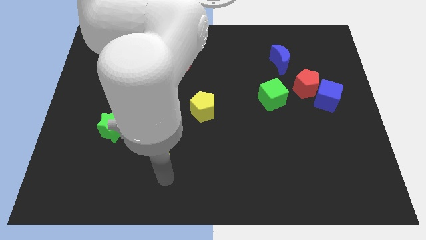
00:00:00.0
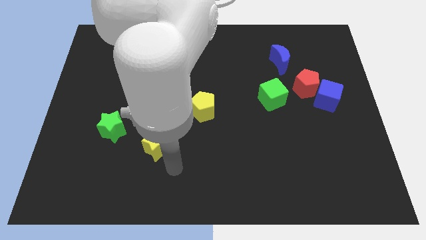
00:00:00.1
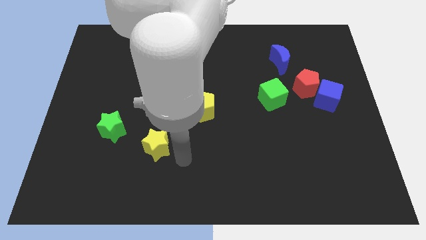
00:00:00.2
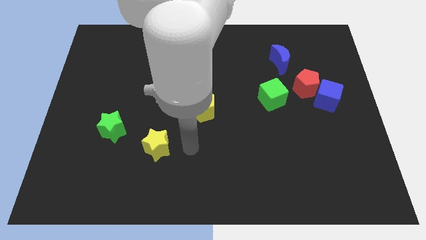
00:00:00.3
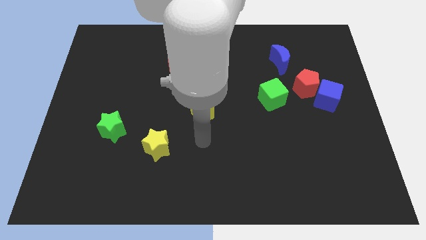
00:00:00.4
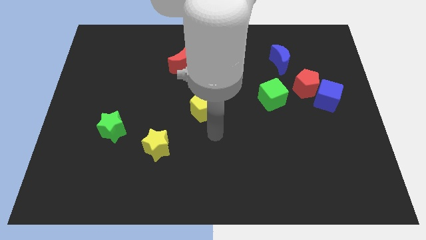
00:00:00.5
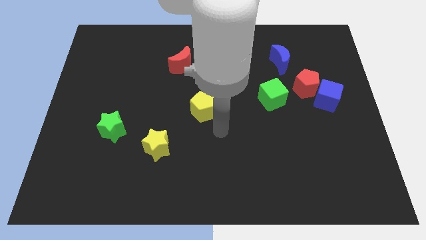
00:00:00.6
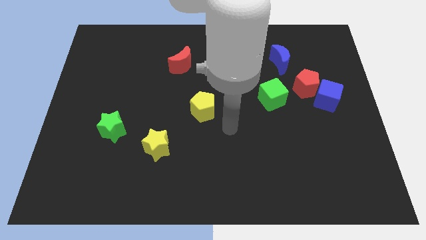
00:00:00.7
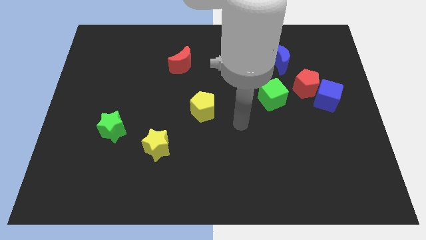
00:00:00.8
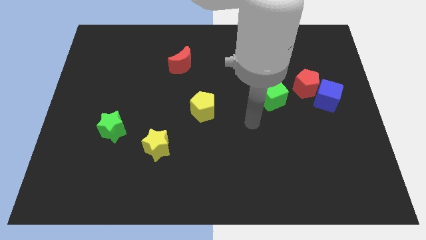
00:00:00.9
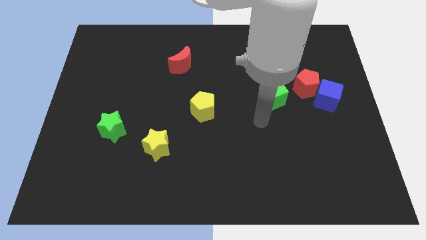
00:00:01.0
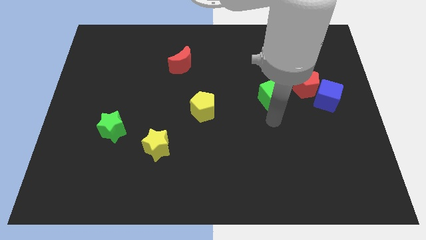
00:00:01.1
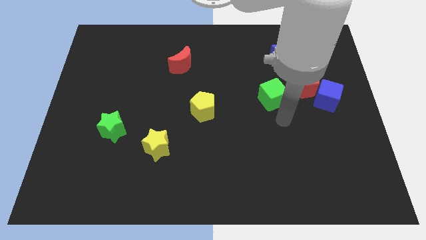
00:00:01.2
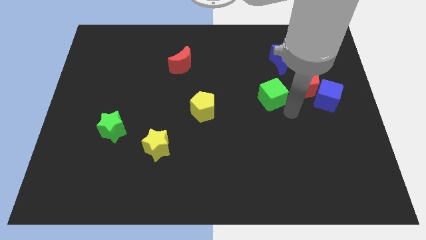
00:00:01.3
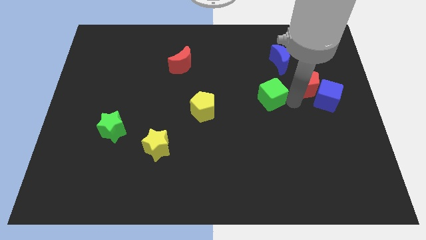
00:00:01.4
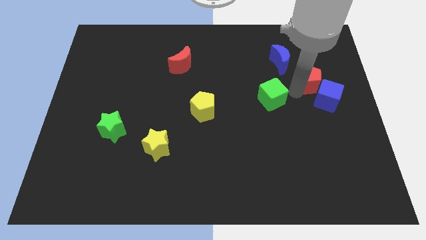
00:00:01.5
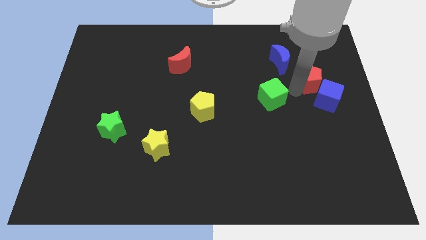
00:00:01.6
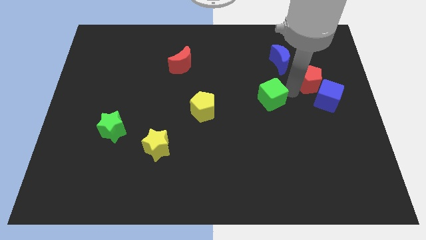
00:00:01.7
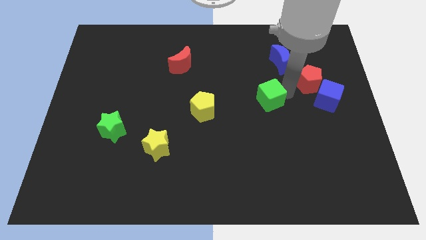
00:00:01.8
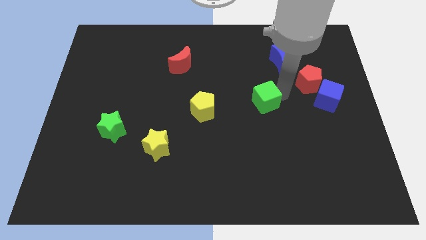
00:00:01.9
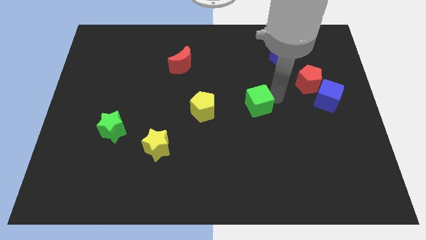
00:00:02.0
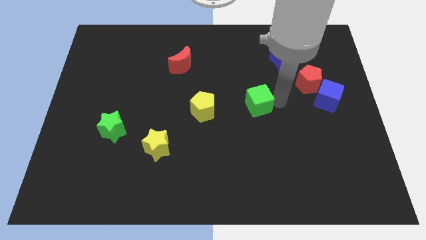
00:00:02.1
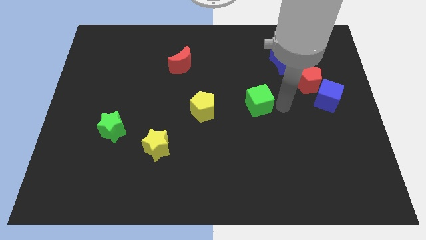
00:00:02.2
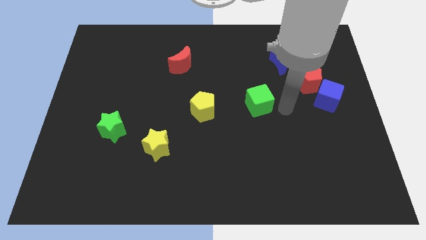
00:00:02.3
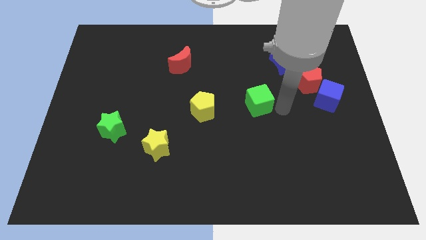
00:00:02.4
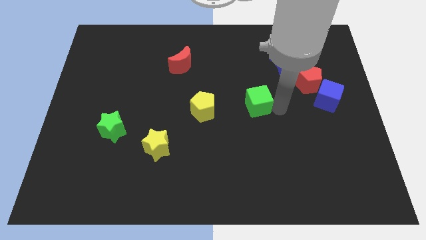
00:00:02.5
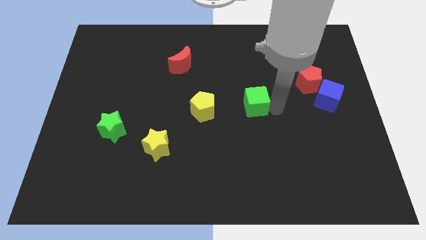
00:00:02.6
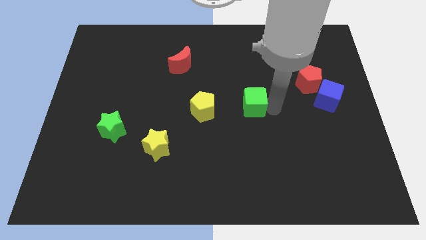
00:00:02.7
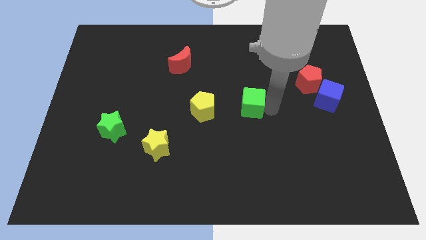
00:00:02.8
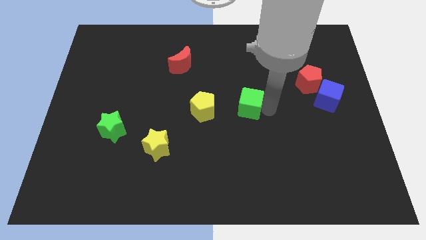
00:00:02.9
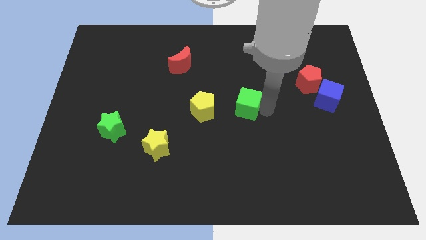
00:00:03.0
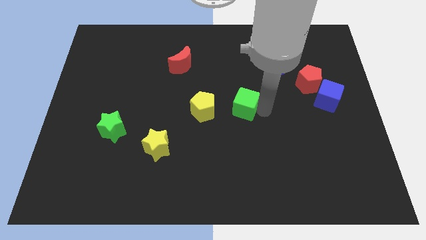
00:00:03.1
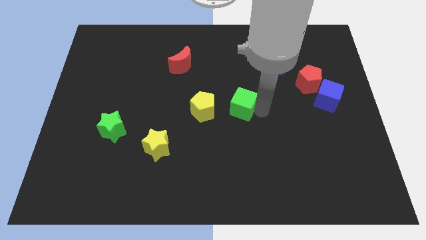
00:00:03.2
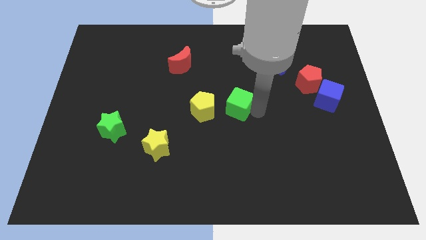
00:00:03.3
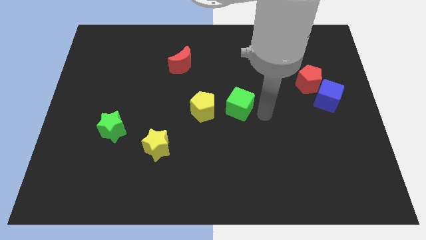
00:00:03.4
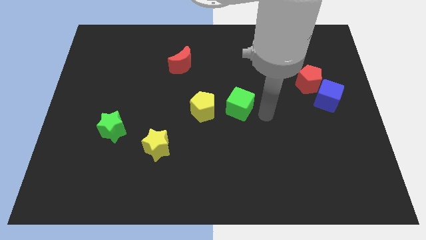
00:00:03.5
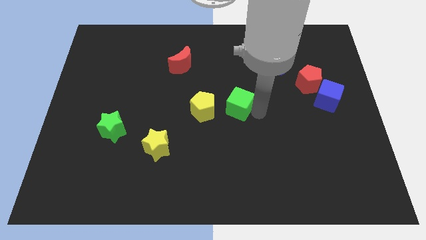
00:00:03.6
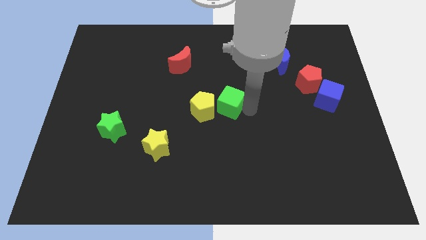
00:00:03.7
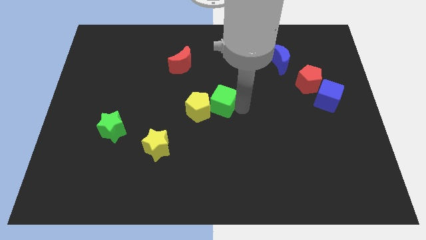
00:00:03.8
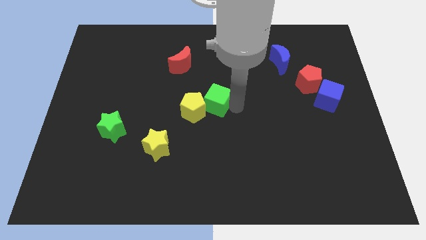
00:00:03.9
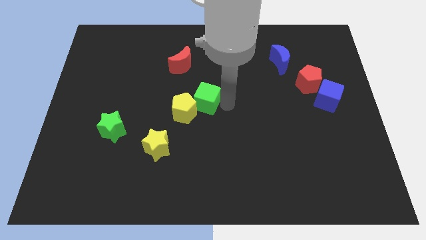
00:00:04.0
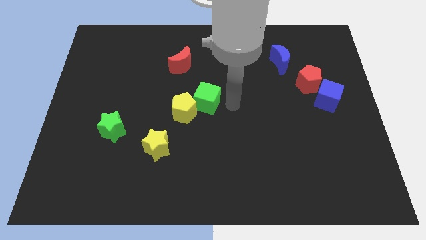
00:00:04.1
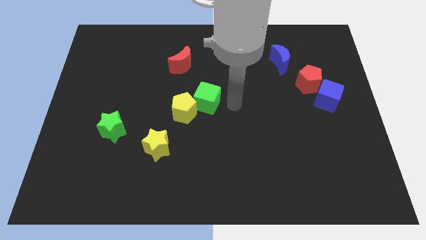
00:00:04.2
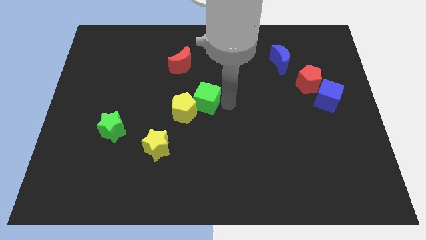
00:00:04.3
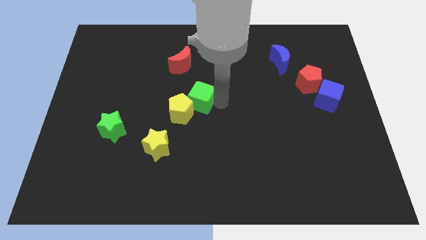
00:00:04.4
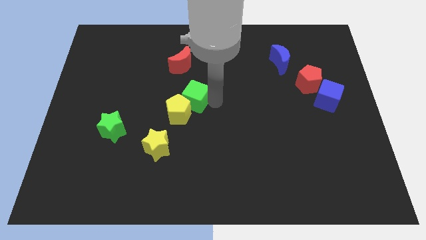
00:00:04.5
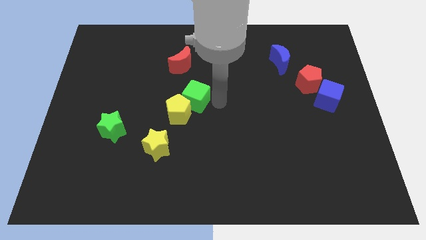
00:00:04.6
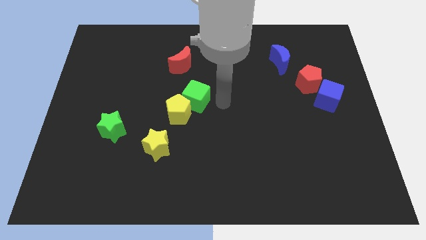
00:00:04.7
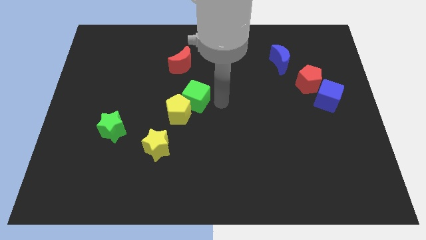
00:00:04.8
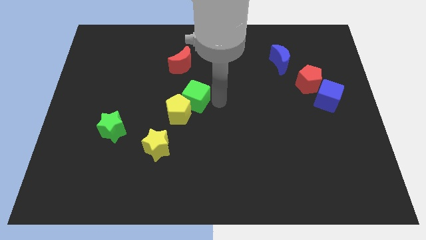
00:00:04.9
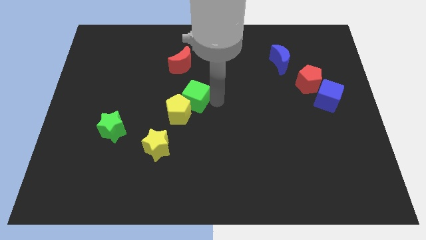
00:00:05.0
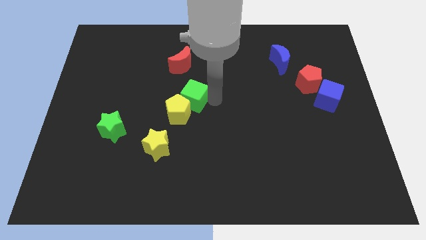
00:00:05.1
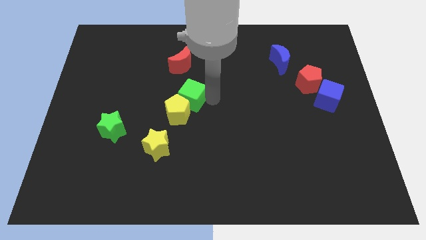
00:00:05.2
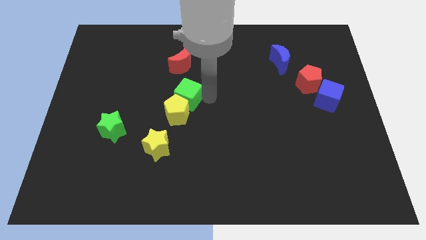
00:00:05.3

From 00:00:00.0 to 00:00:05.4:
push the green cube to the left

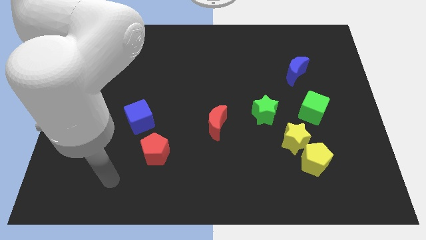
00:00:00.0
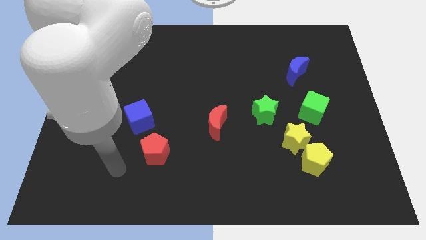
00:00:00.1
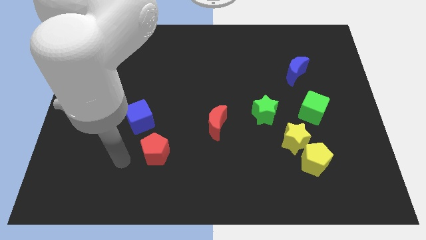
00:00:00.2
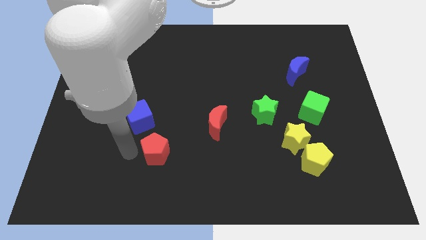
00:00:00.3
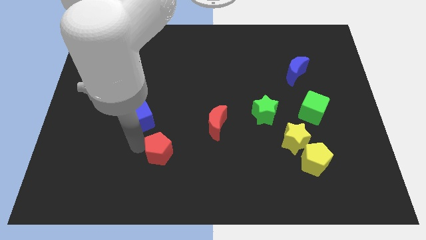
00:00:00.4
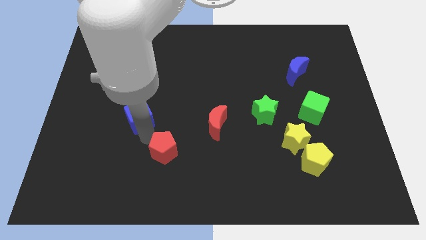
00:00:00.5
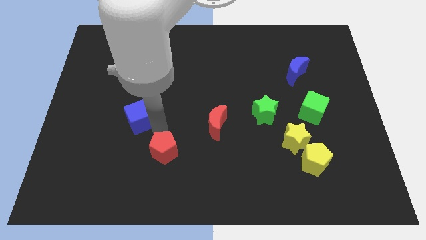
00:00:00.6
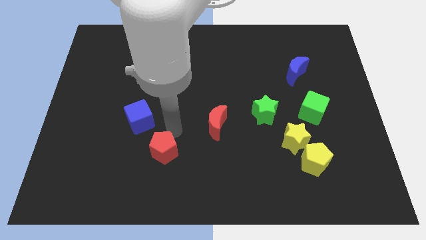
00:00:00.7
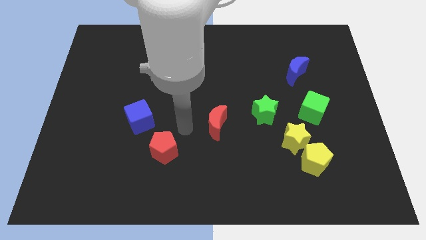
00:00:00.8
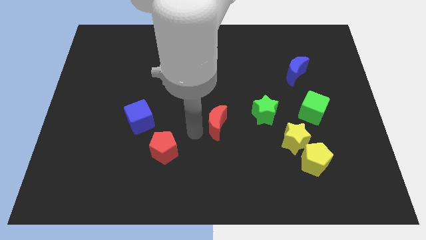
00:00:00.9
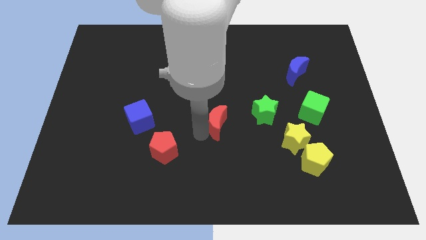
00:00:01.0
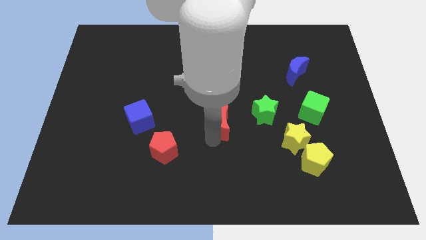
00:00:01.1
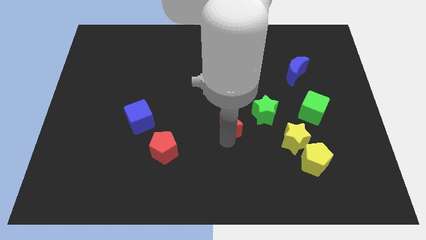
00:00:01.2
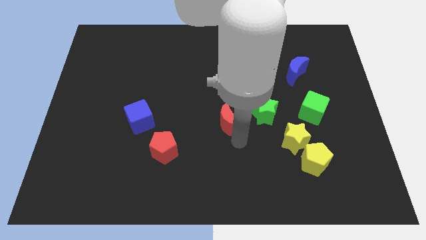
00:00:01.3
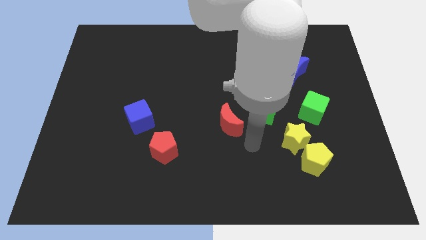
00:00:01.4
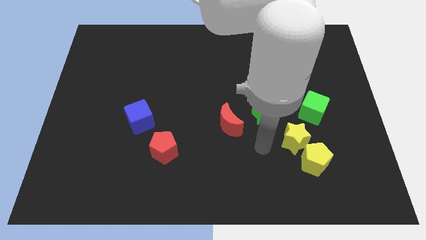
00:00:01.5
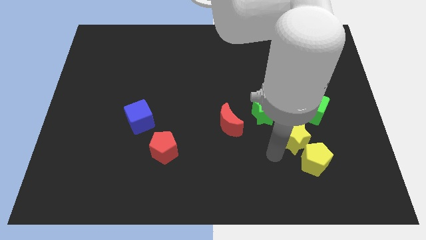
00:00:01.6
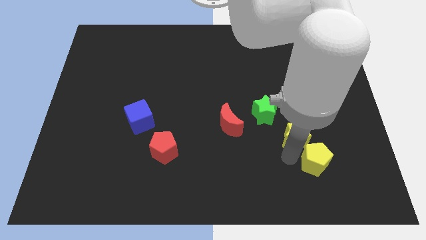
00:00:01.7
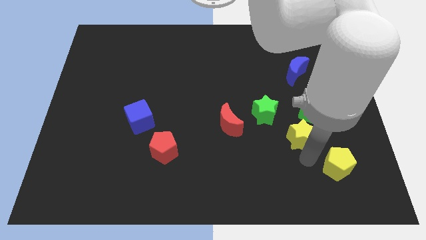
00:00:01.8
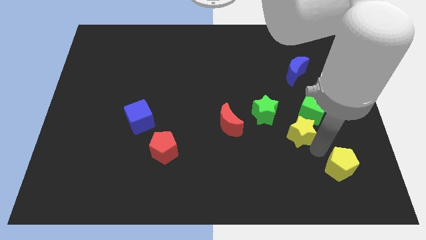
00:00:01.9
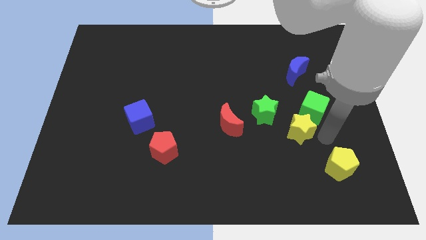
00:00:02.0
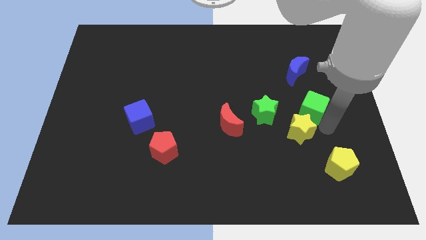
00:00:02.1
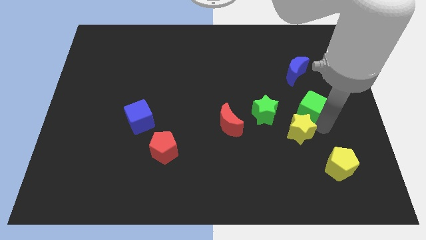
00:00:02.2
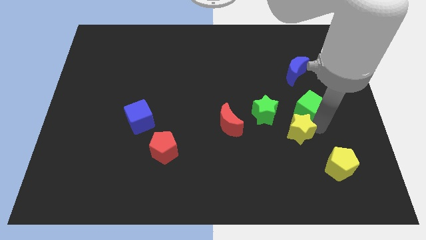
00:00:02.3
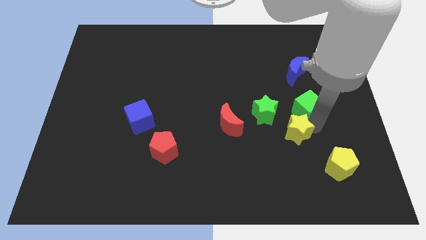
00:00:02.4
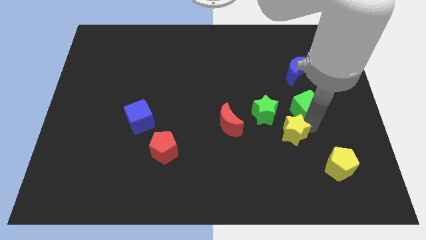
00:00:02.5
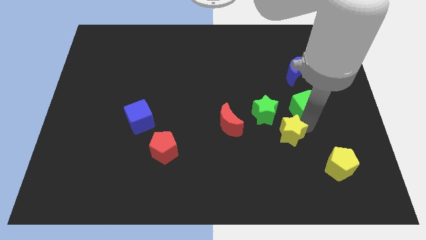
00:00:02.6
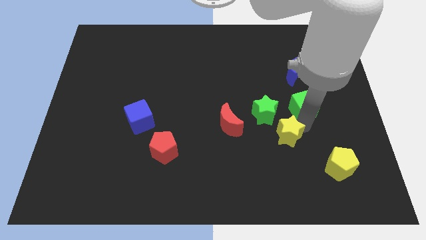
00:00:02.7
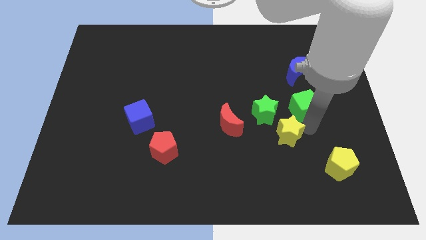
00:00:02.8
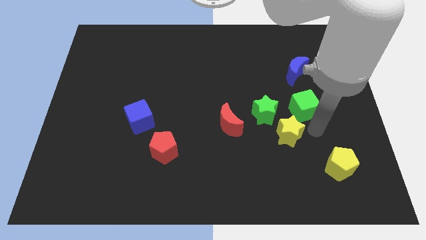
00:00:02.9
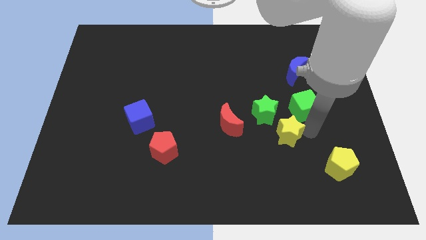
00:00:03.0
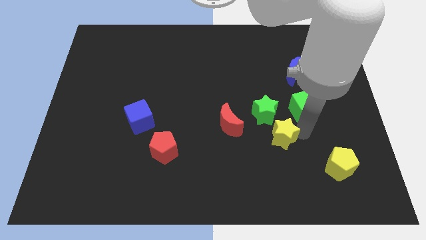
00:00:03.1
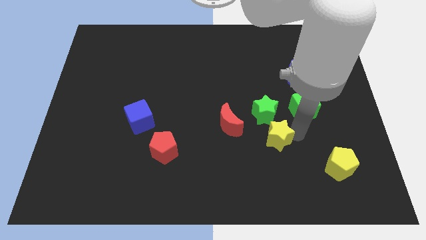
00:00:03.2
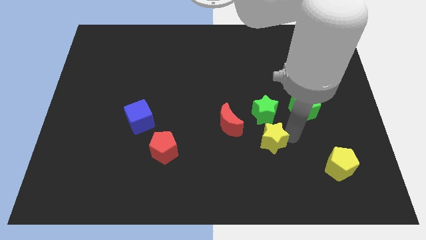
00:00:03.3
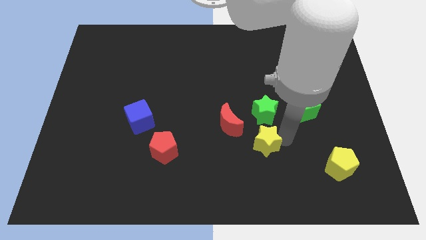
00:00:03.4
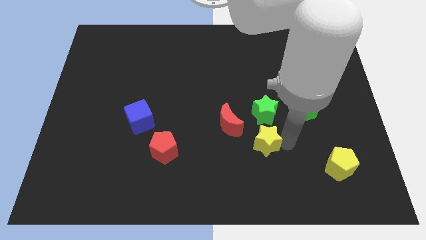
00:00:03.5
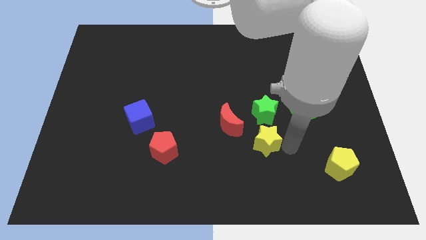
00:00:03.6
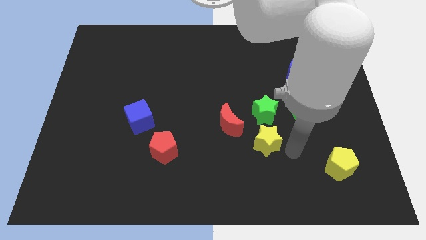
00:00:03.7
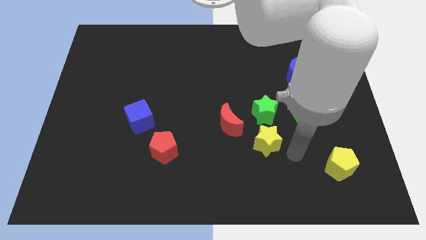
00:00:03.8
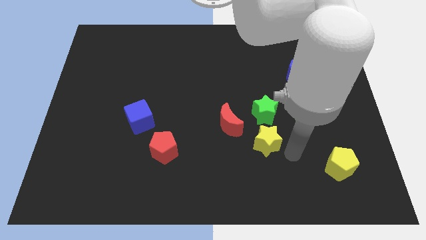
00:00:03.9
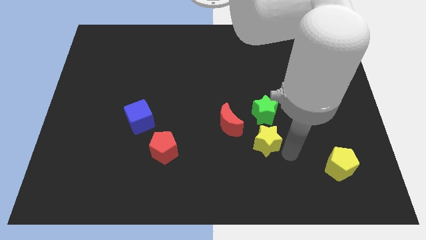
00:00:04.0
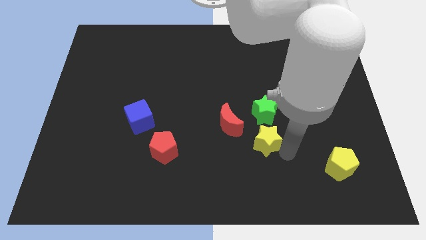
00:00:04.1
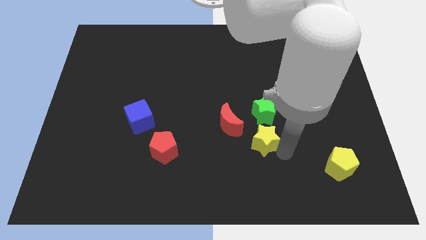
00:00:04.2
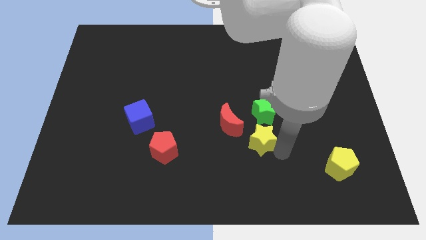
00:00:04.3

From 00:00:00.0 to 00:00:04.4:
push the yellow star a little to the left
